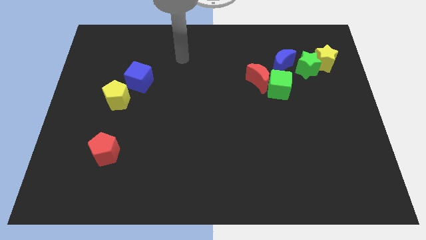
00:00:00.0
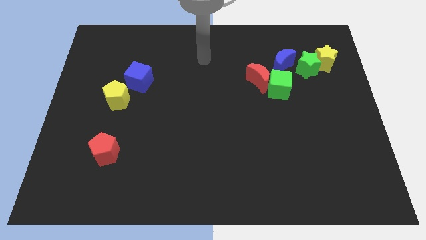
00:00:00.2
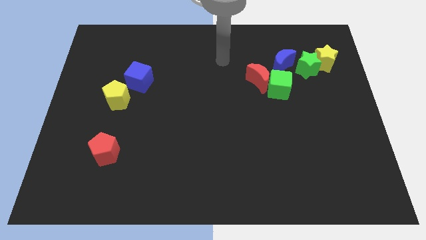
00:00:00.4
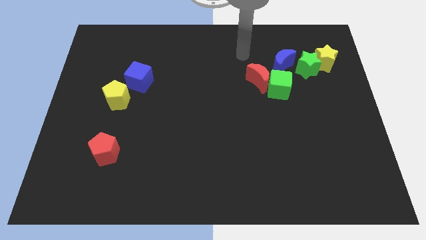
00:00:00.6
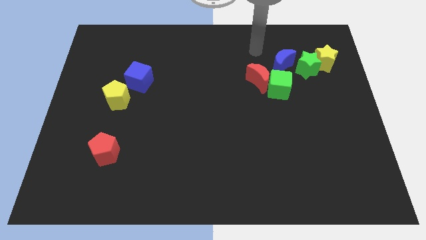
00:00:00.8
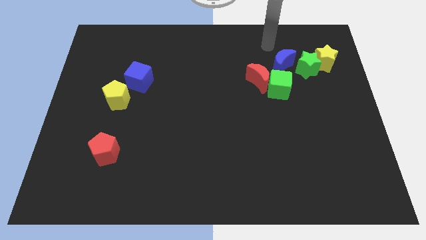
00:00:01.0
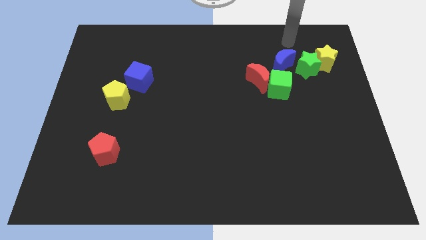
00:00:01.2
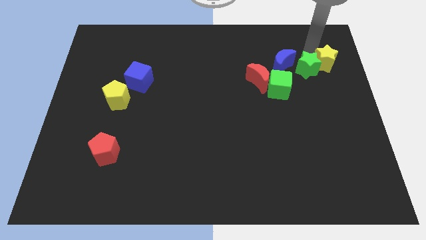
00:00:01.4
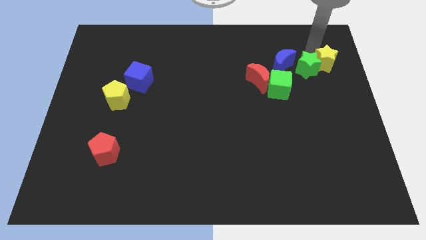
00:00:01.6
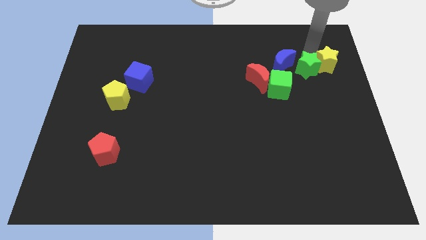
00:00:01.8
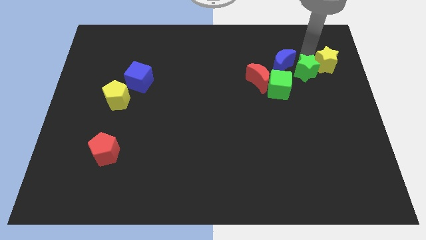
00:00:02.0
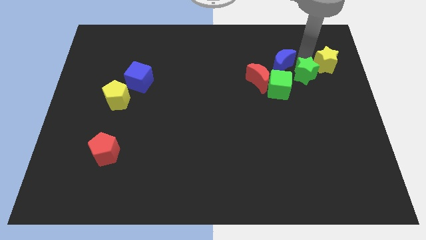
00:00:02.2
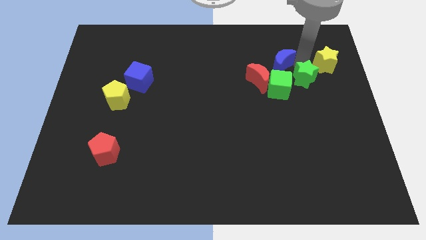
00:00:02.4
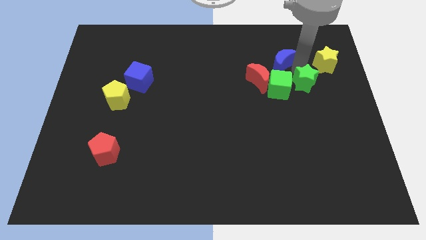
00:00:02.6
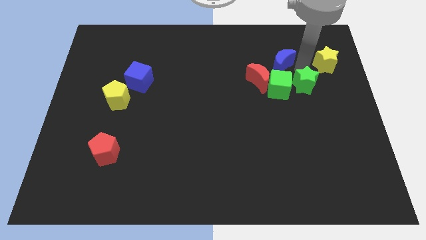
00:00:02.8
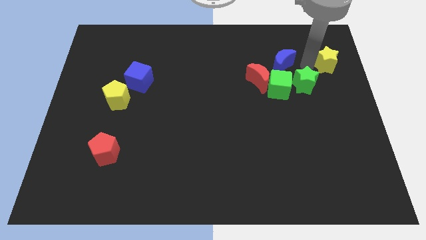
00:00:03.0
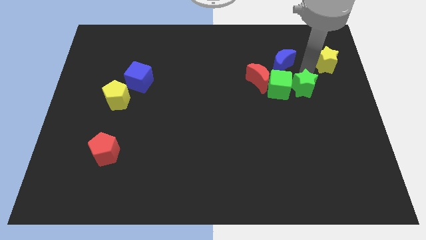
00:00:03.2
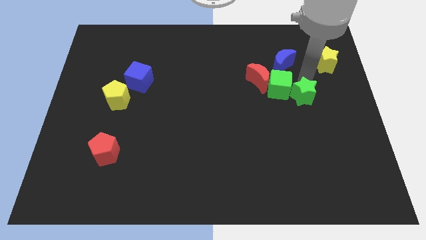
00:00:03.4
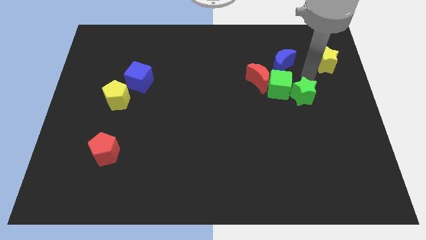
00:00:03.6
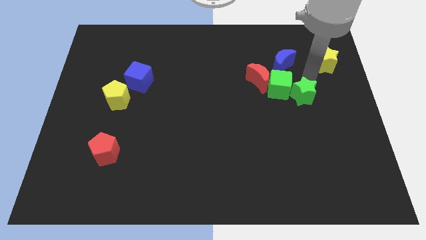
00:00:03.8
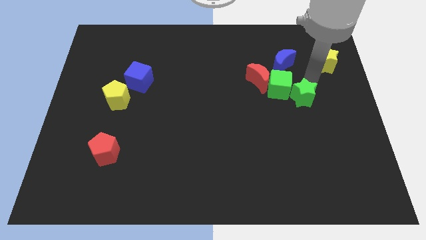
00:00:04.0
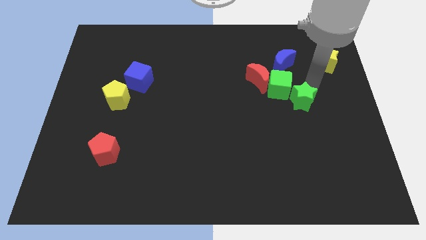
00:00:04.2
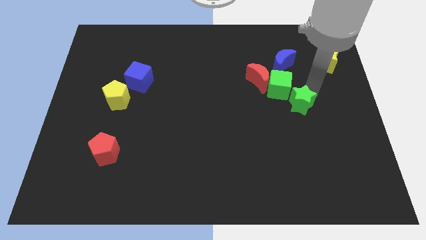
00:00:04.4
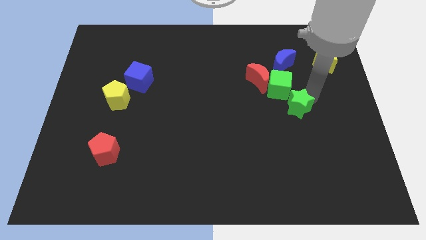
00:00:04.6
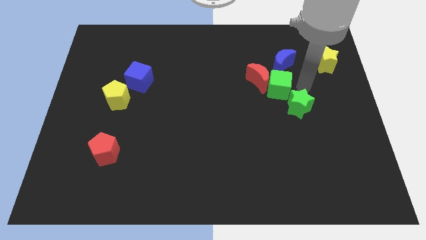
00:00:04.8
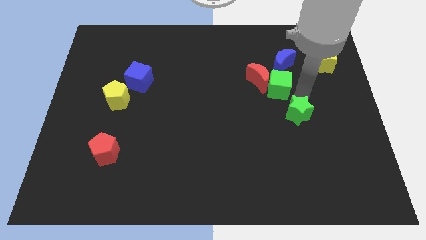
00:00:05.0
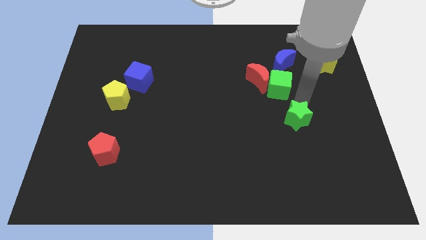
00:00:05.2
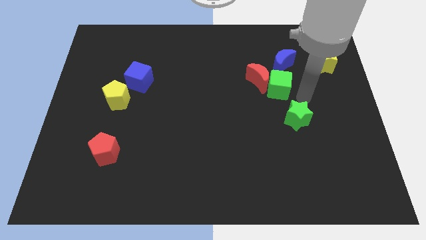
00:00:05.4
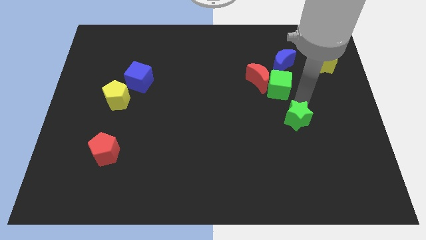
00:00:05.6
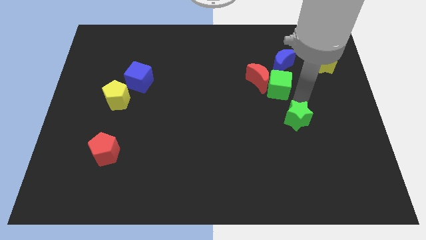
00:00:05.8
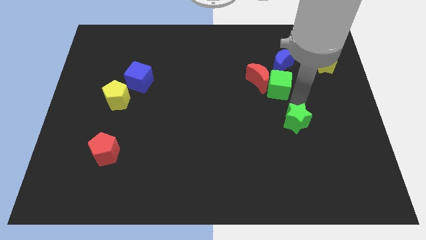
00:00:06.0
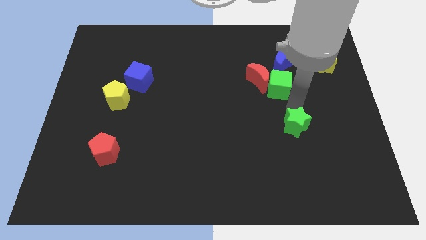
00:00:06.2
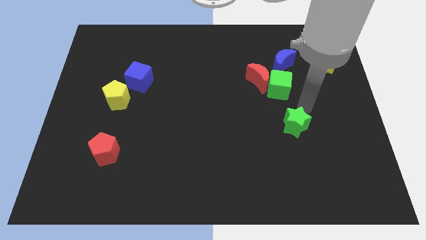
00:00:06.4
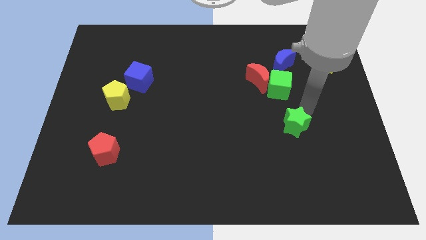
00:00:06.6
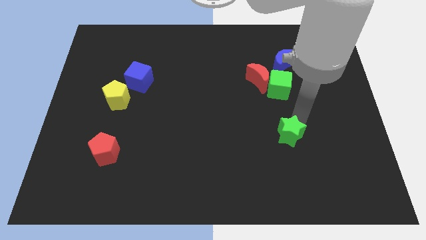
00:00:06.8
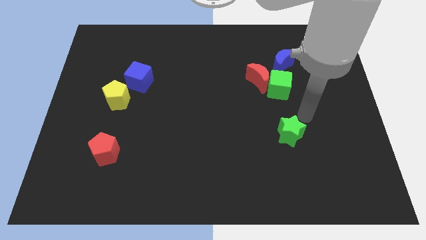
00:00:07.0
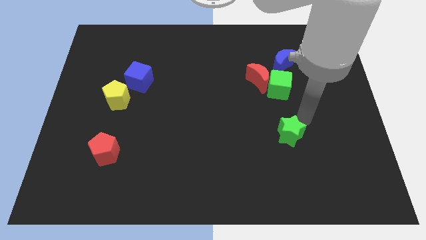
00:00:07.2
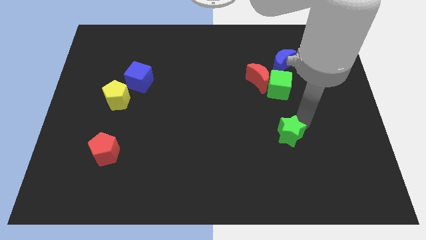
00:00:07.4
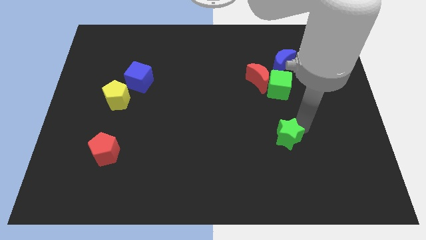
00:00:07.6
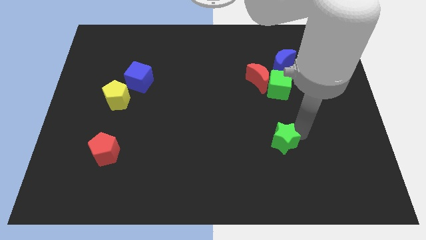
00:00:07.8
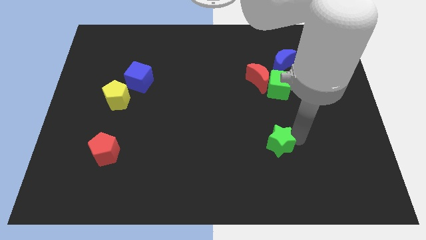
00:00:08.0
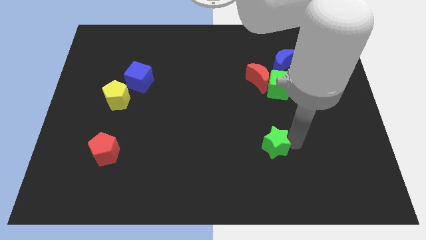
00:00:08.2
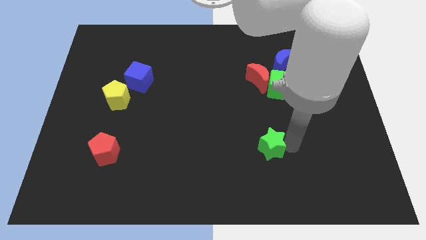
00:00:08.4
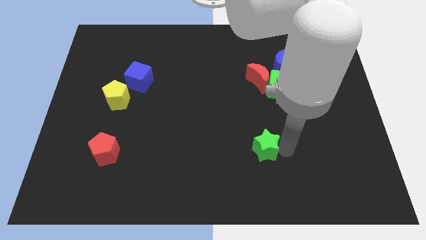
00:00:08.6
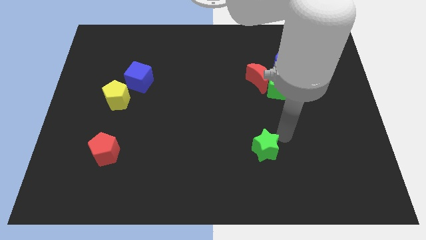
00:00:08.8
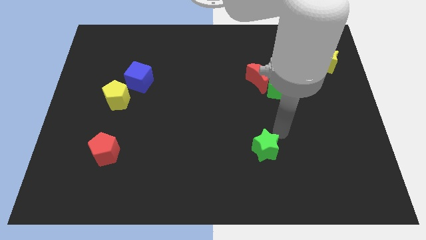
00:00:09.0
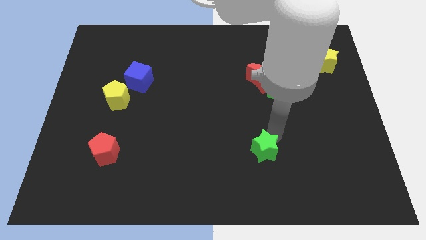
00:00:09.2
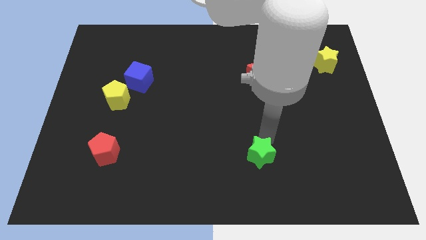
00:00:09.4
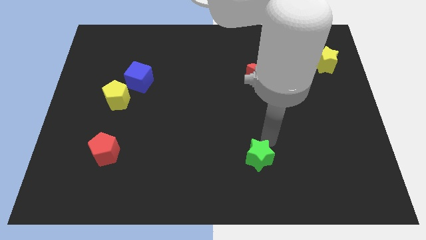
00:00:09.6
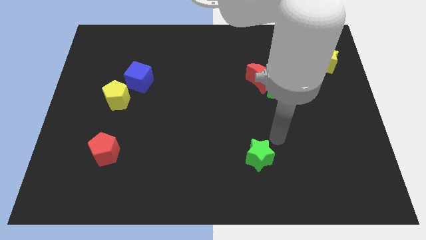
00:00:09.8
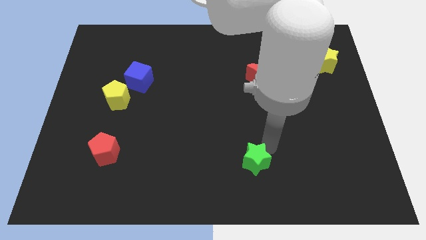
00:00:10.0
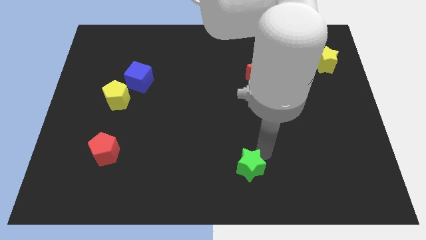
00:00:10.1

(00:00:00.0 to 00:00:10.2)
put the green star to the bottom

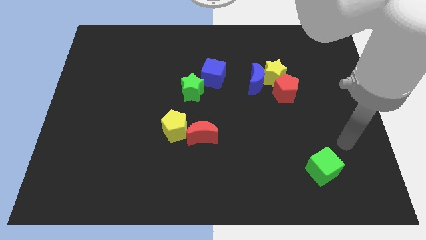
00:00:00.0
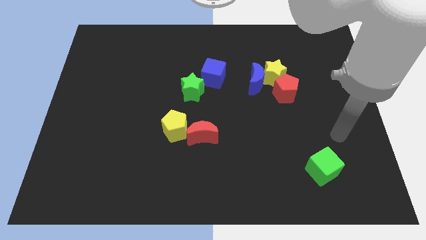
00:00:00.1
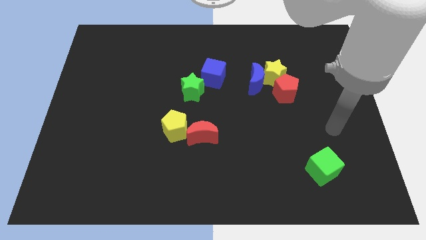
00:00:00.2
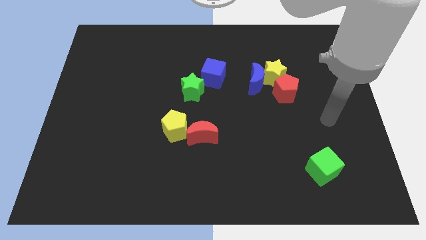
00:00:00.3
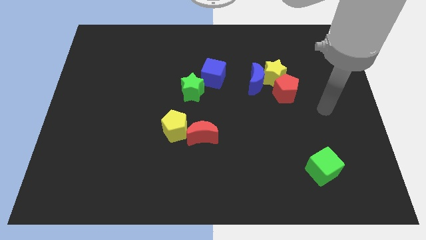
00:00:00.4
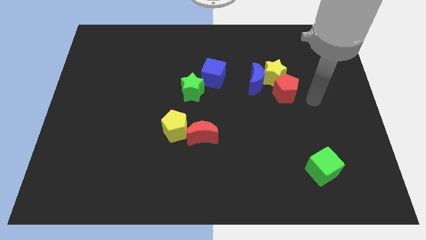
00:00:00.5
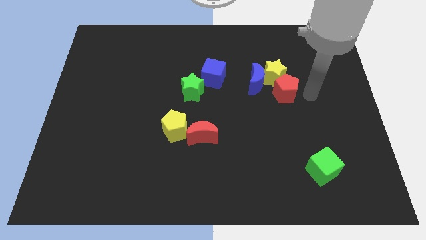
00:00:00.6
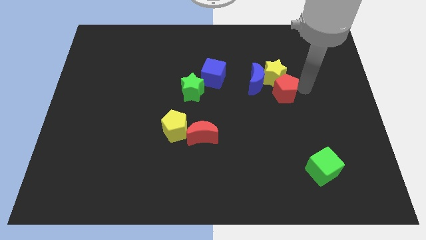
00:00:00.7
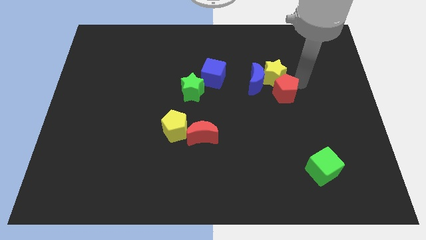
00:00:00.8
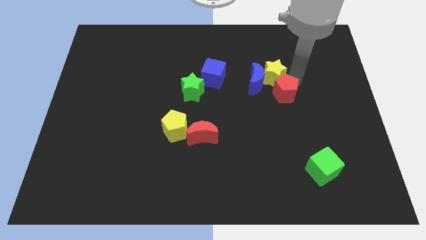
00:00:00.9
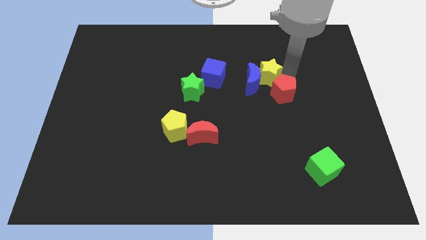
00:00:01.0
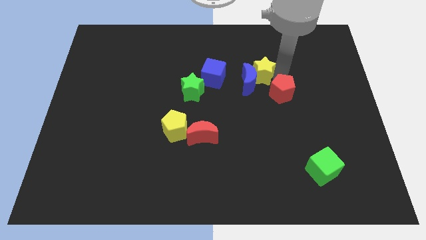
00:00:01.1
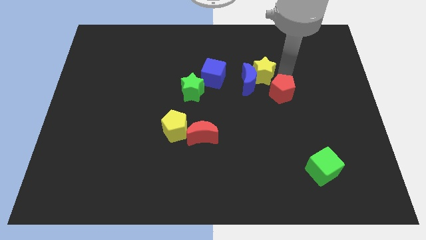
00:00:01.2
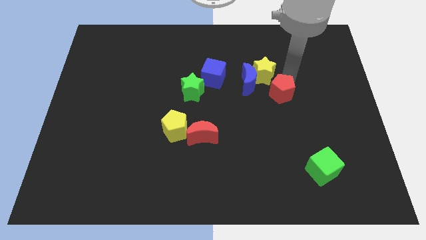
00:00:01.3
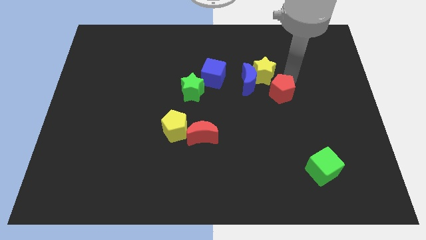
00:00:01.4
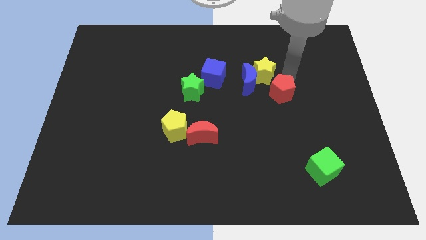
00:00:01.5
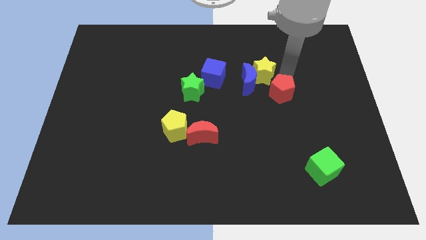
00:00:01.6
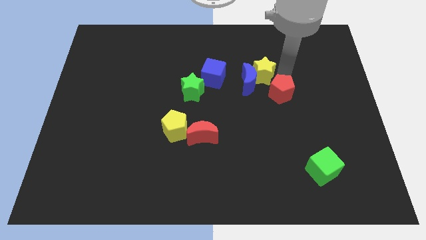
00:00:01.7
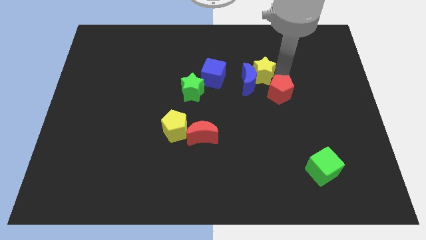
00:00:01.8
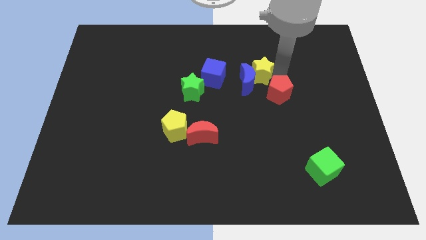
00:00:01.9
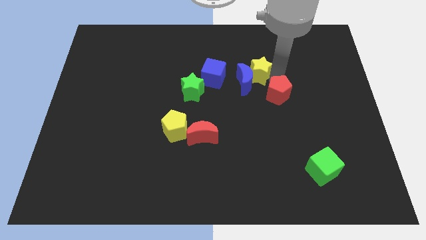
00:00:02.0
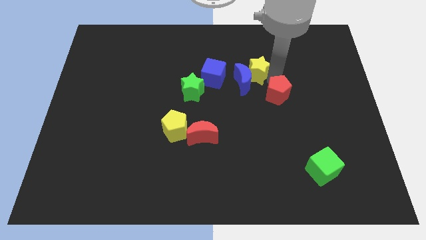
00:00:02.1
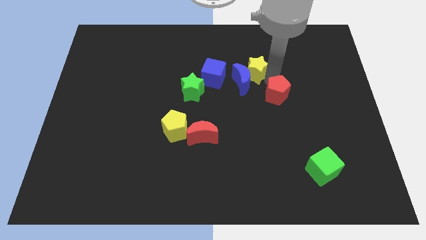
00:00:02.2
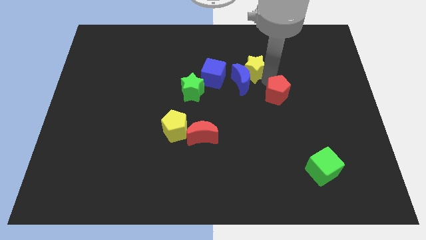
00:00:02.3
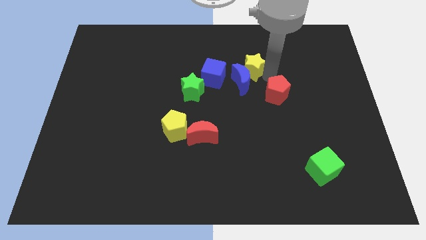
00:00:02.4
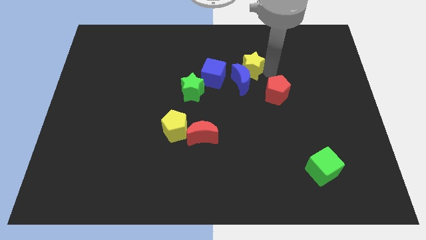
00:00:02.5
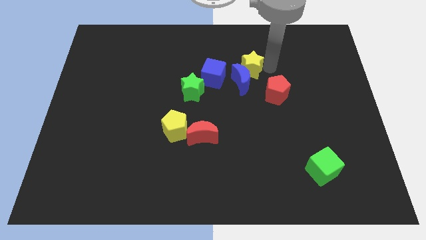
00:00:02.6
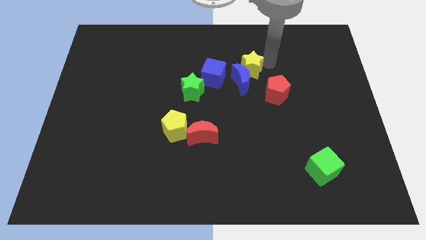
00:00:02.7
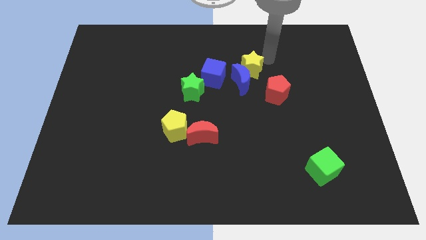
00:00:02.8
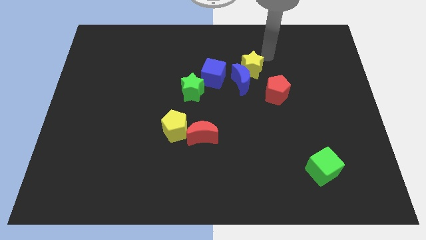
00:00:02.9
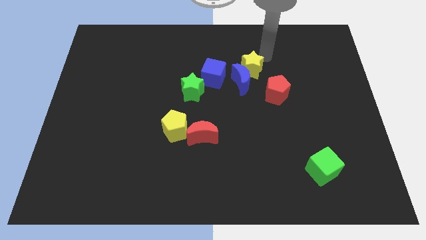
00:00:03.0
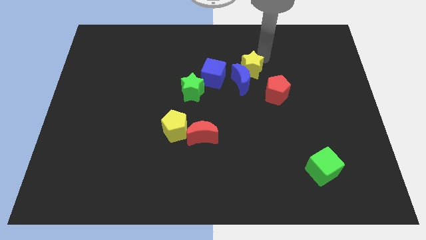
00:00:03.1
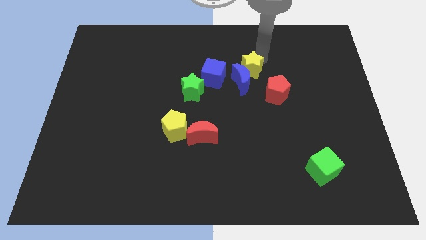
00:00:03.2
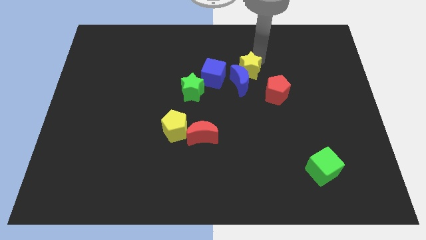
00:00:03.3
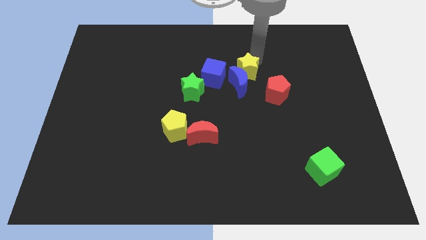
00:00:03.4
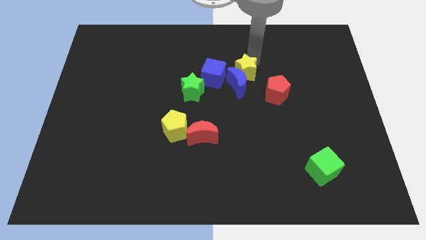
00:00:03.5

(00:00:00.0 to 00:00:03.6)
push the yellow star to the middle of the board
